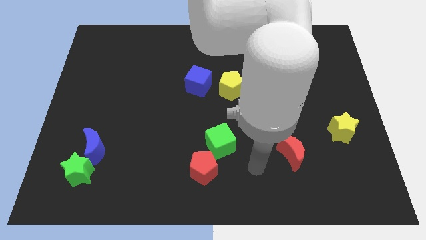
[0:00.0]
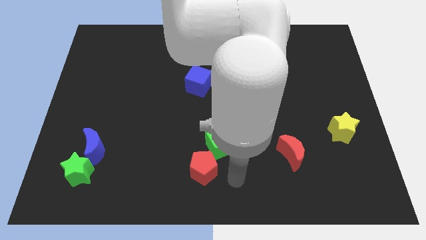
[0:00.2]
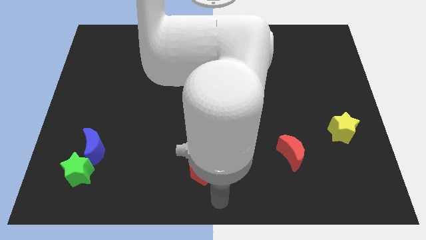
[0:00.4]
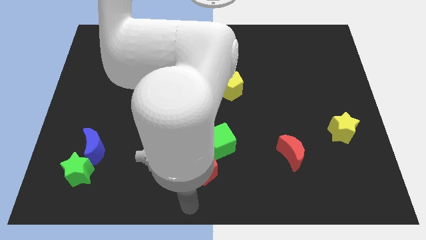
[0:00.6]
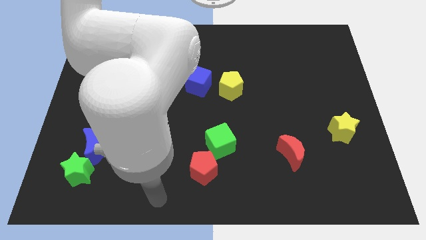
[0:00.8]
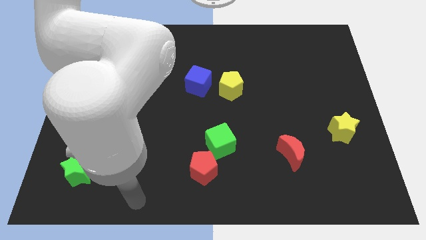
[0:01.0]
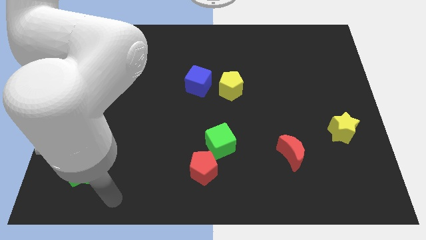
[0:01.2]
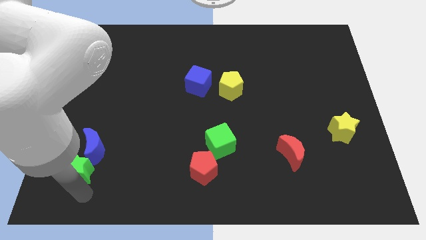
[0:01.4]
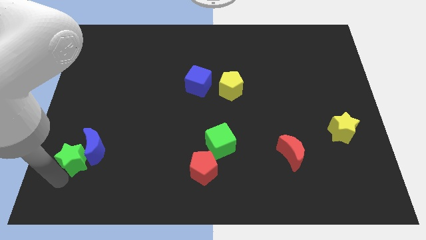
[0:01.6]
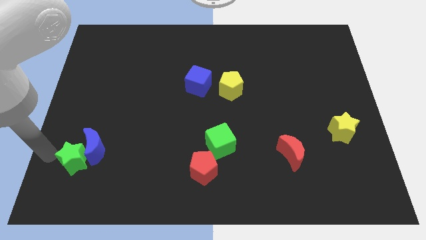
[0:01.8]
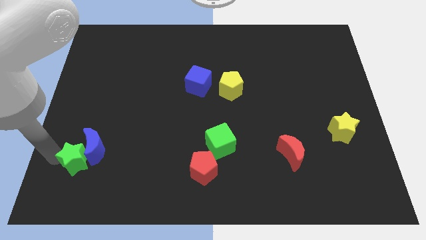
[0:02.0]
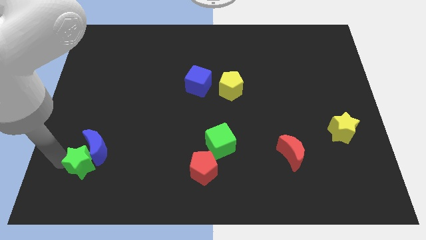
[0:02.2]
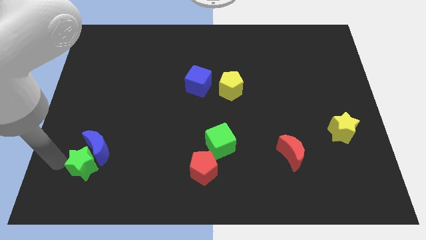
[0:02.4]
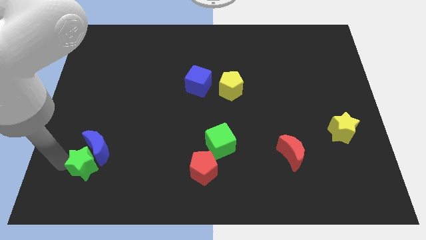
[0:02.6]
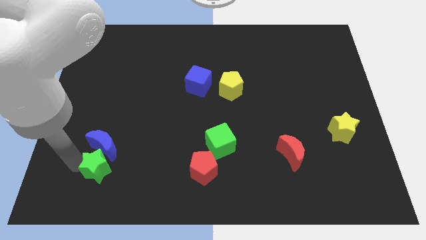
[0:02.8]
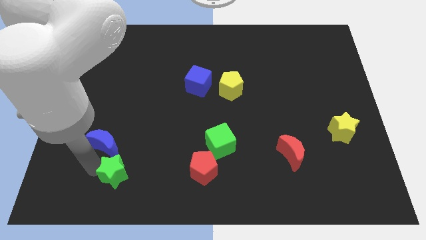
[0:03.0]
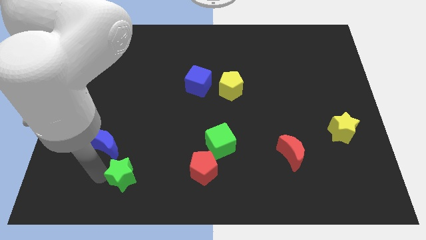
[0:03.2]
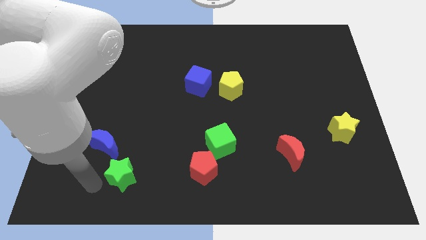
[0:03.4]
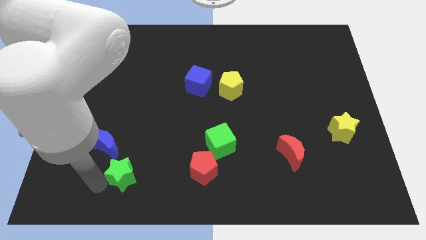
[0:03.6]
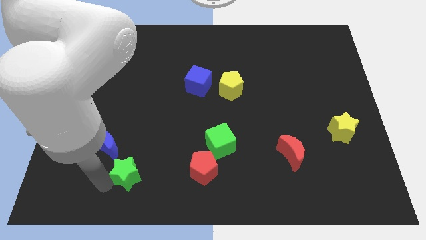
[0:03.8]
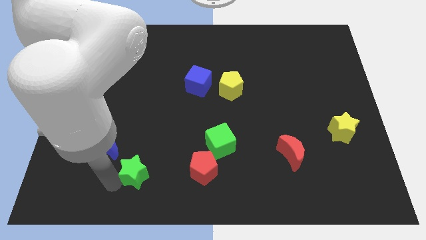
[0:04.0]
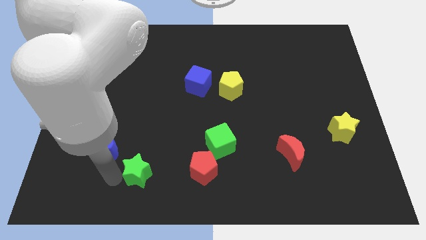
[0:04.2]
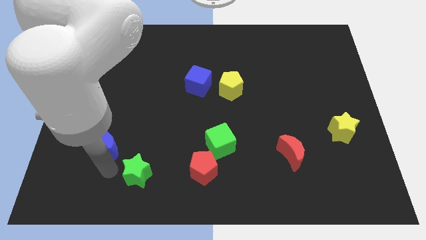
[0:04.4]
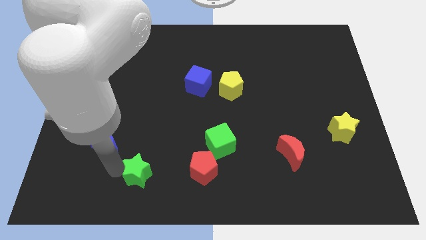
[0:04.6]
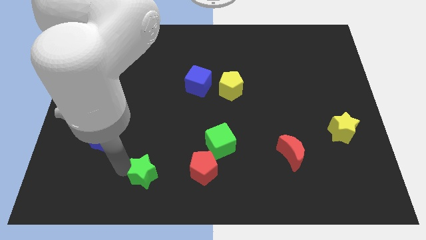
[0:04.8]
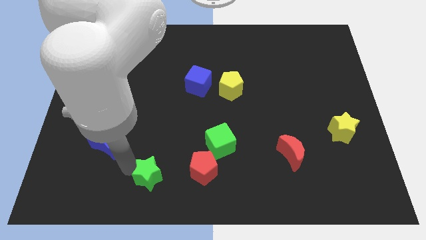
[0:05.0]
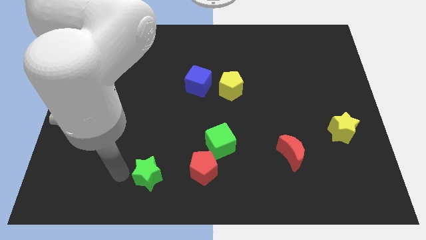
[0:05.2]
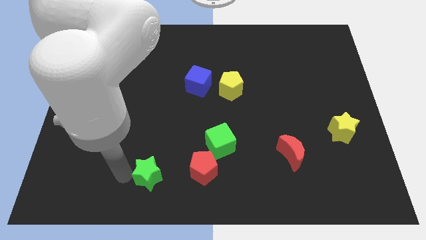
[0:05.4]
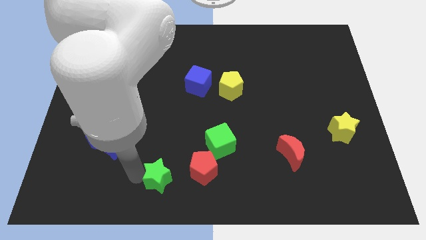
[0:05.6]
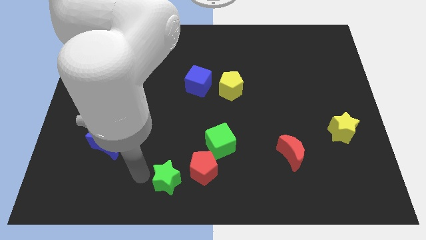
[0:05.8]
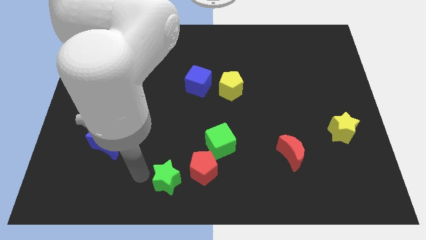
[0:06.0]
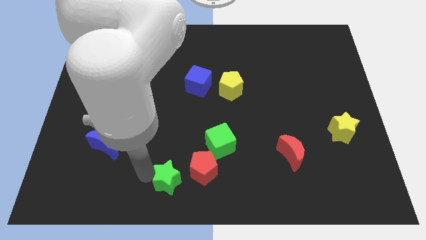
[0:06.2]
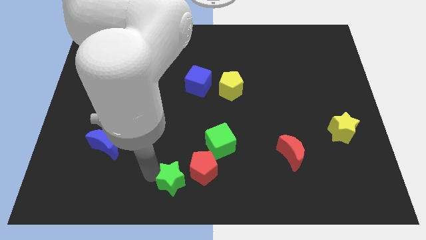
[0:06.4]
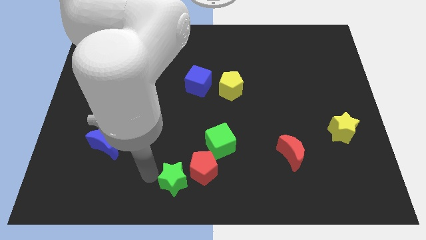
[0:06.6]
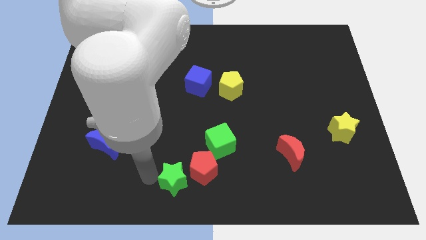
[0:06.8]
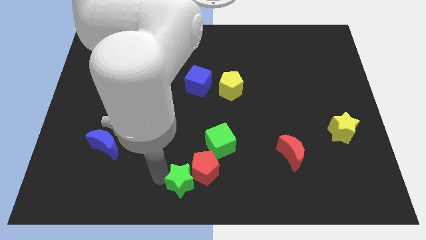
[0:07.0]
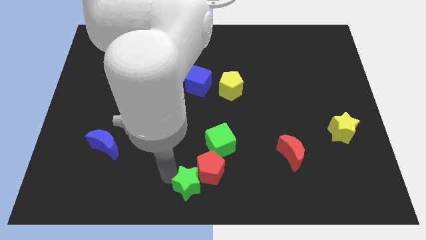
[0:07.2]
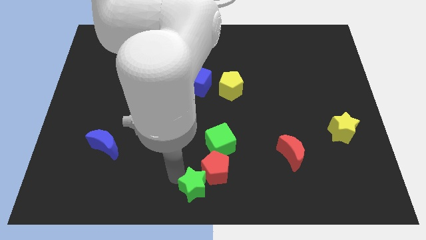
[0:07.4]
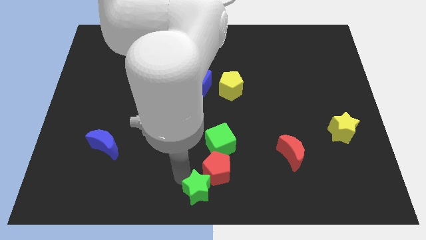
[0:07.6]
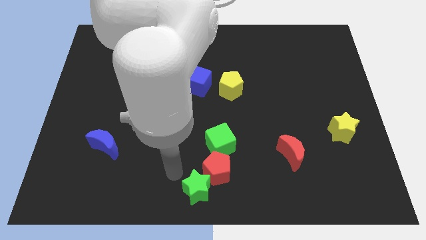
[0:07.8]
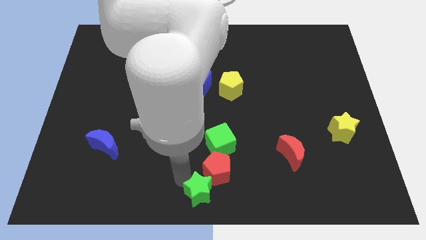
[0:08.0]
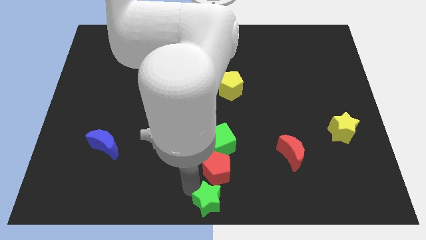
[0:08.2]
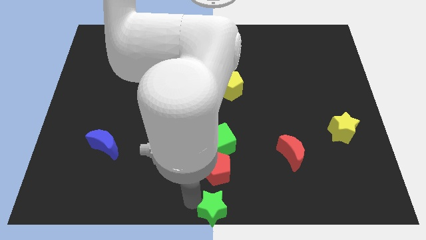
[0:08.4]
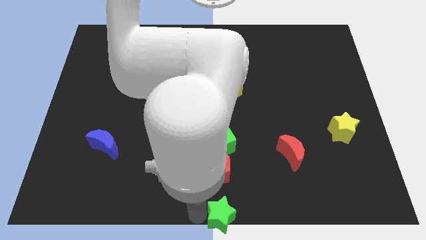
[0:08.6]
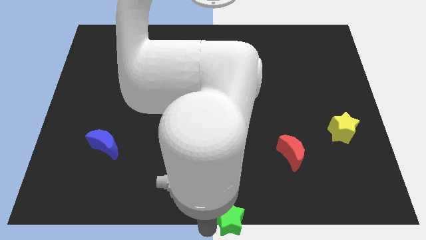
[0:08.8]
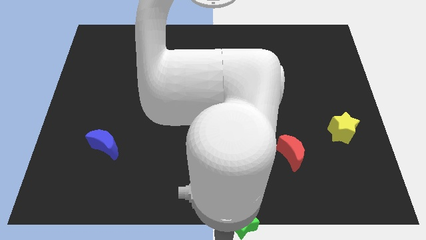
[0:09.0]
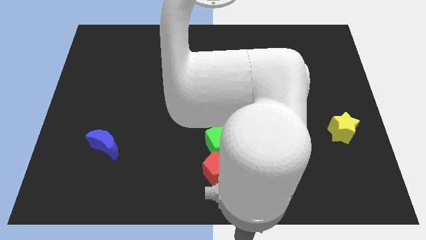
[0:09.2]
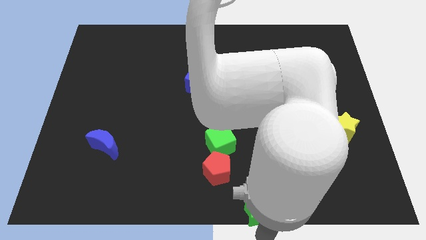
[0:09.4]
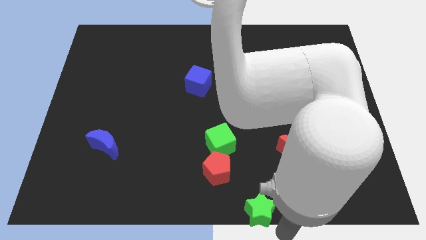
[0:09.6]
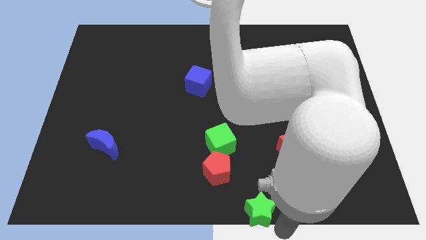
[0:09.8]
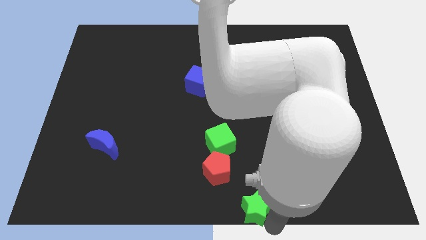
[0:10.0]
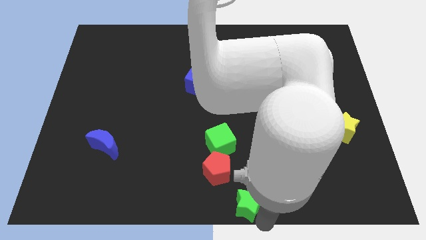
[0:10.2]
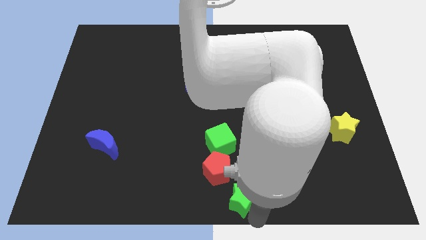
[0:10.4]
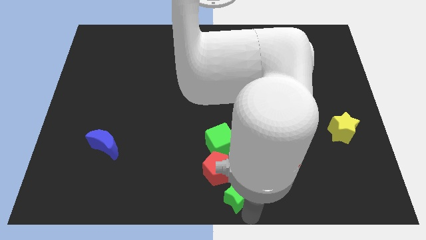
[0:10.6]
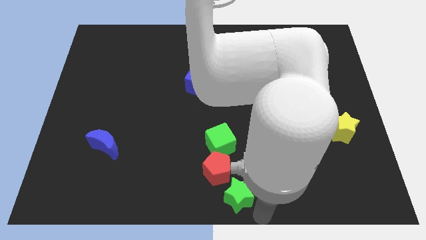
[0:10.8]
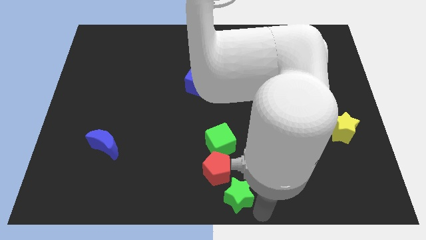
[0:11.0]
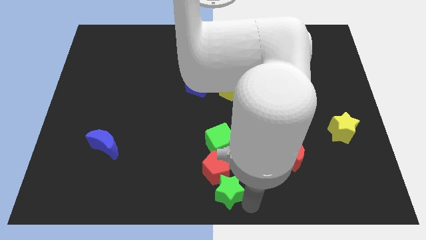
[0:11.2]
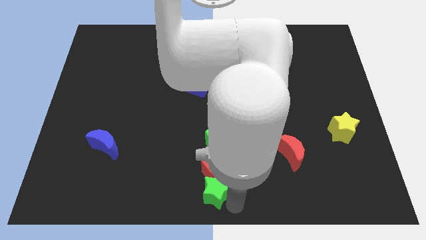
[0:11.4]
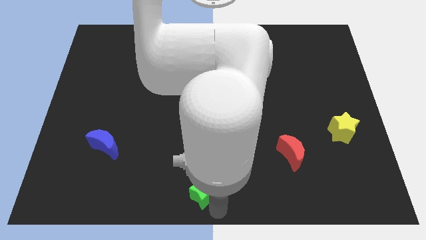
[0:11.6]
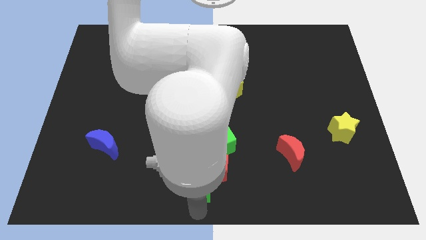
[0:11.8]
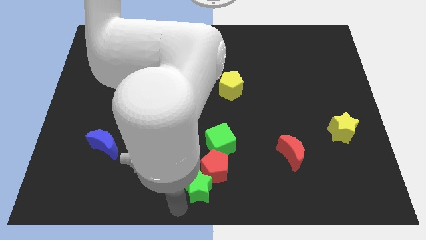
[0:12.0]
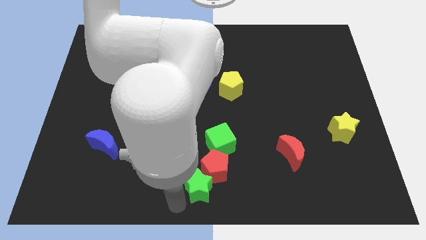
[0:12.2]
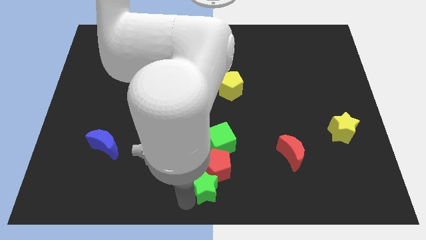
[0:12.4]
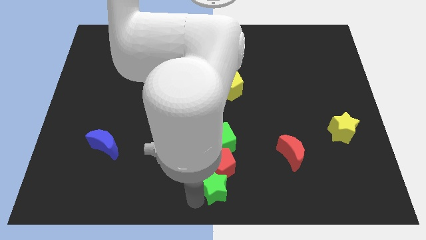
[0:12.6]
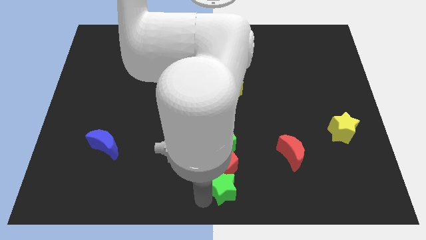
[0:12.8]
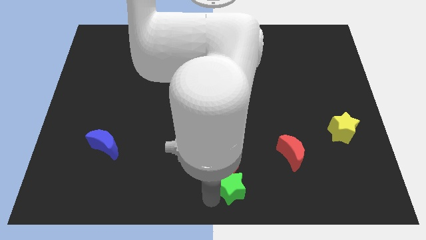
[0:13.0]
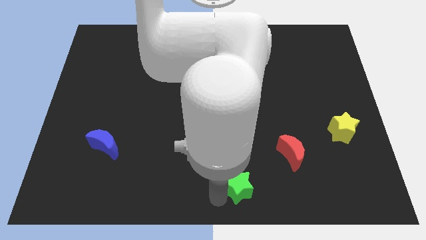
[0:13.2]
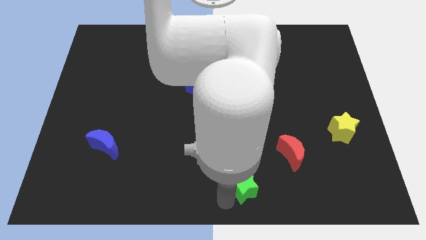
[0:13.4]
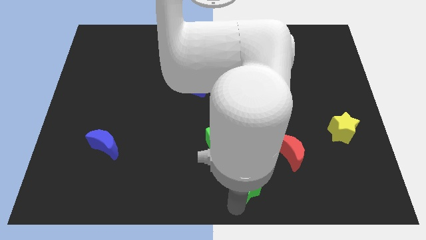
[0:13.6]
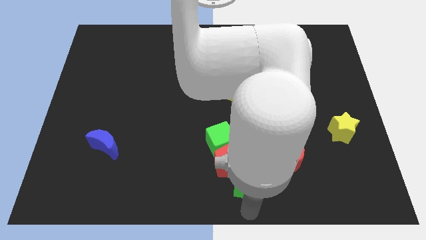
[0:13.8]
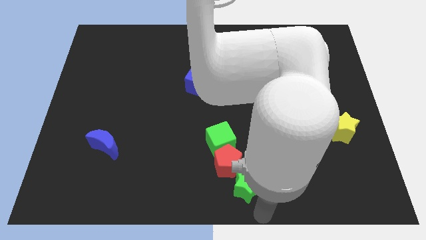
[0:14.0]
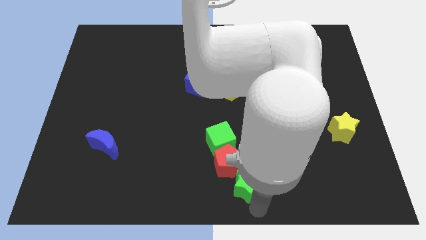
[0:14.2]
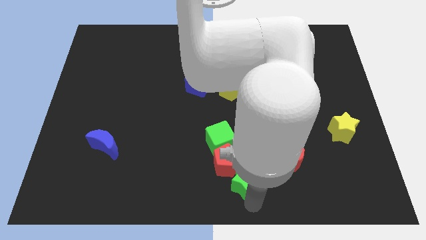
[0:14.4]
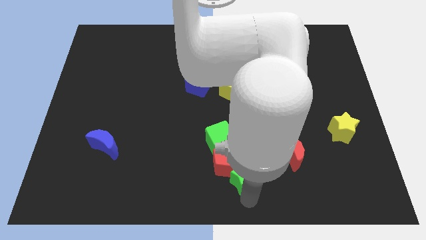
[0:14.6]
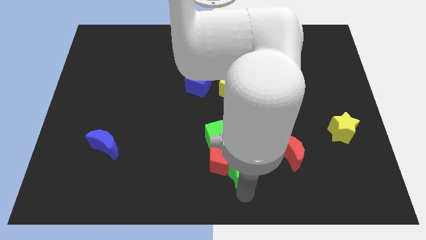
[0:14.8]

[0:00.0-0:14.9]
put the green star to the left of the red moon
